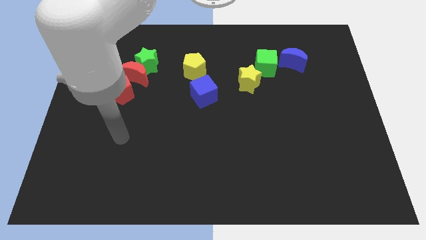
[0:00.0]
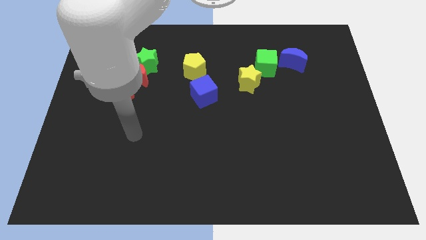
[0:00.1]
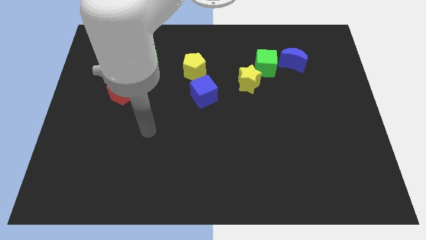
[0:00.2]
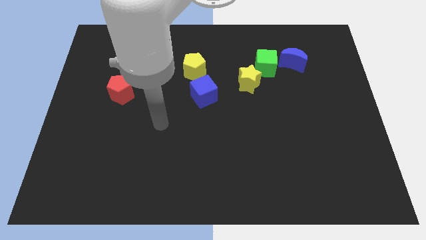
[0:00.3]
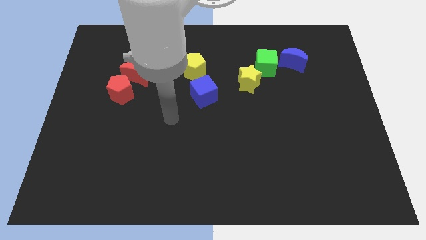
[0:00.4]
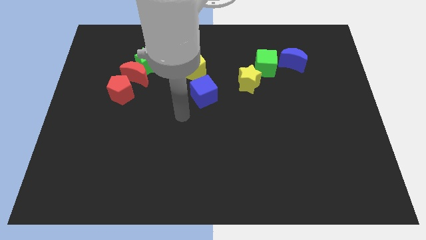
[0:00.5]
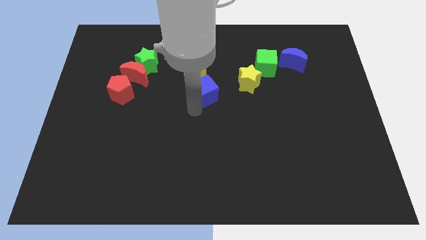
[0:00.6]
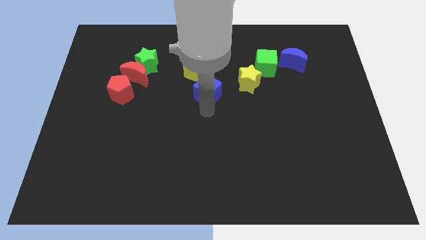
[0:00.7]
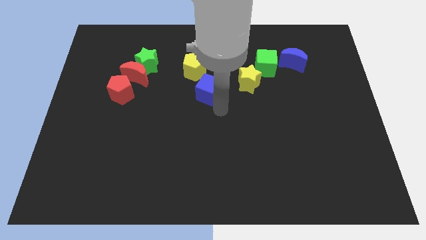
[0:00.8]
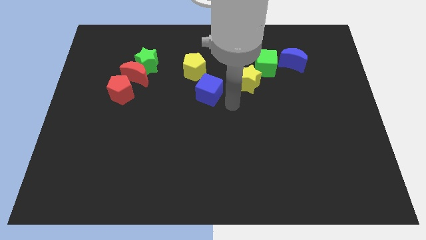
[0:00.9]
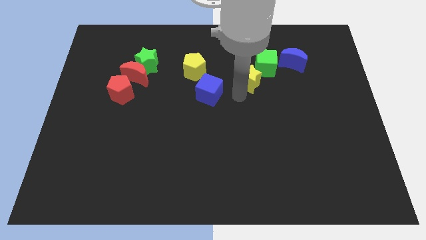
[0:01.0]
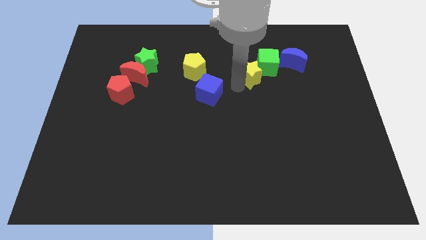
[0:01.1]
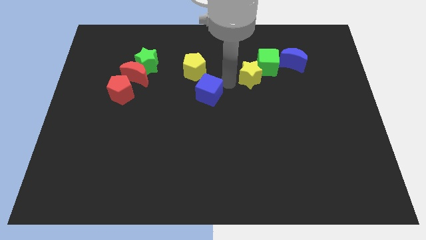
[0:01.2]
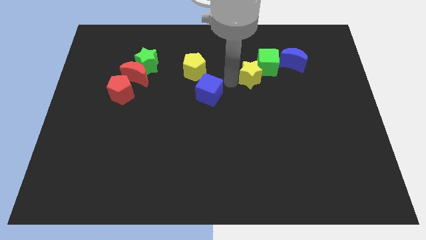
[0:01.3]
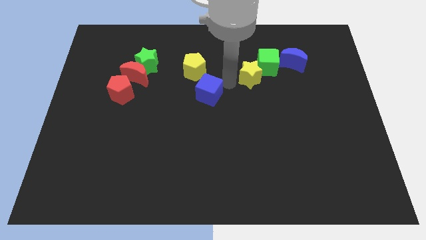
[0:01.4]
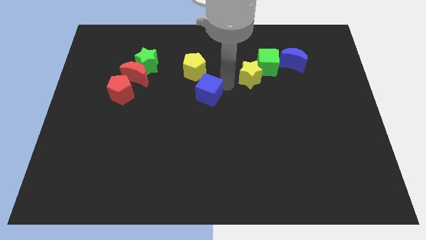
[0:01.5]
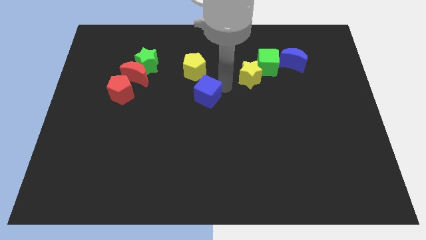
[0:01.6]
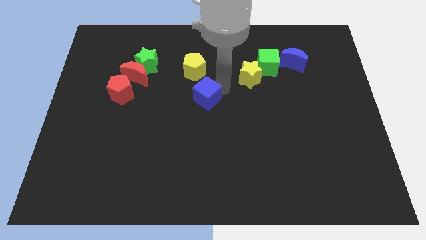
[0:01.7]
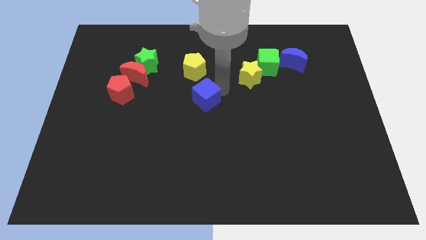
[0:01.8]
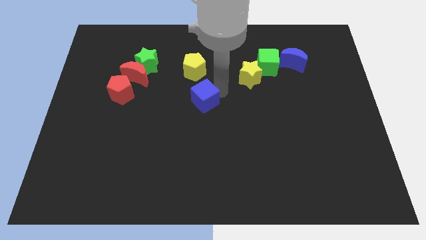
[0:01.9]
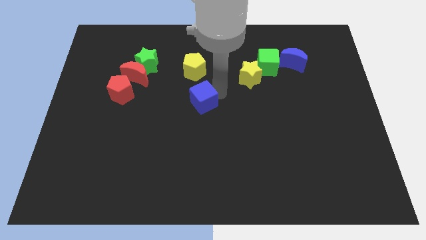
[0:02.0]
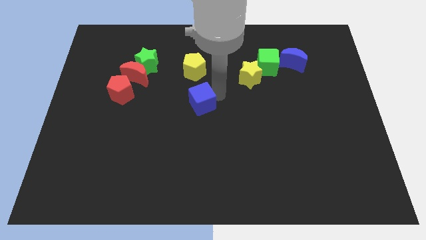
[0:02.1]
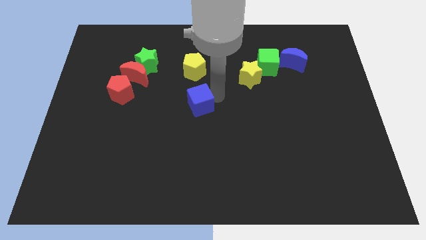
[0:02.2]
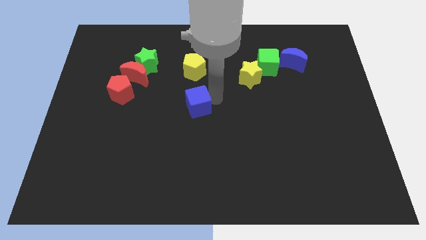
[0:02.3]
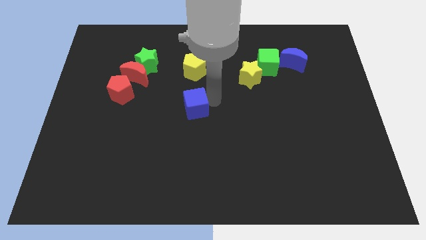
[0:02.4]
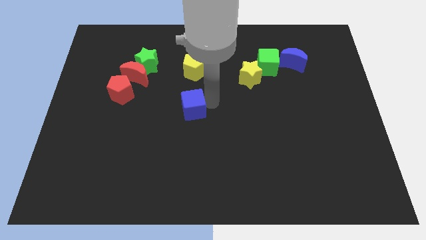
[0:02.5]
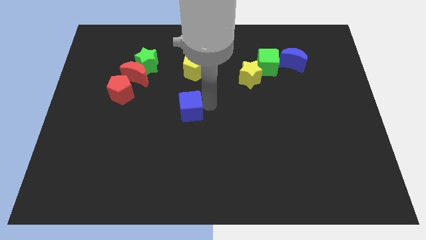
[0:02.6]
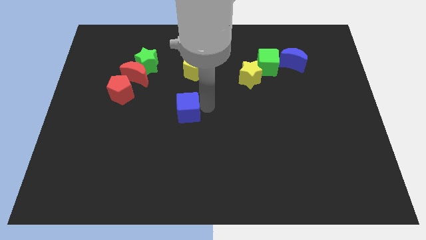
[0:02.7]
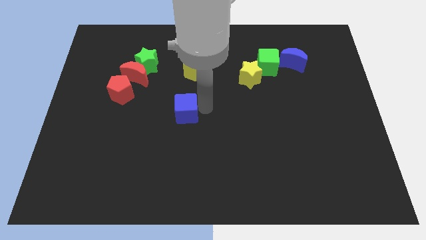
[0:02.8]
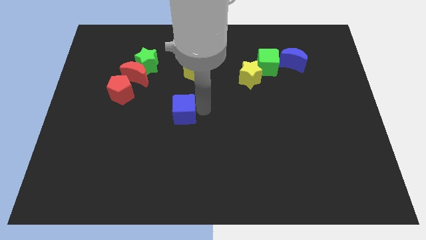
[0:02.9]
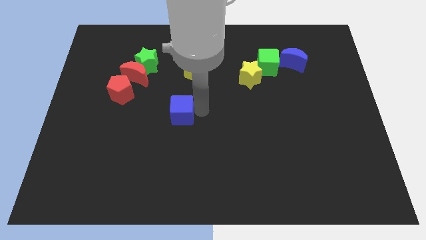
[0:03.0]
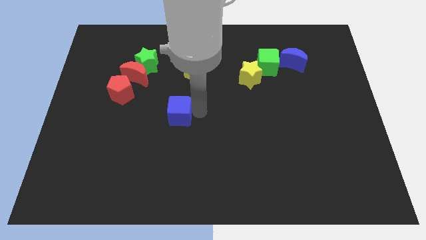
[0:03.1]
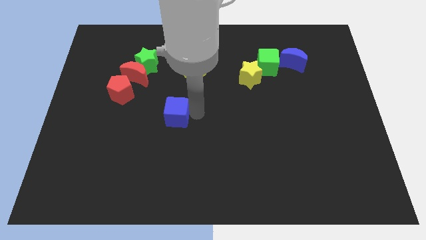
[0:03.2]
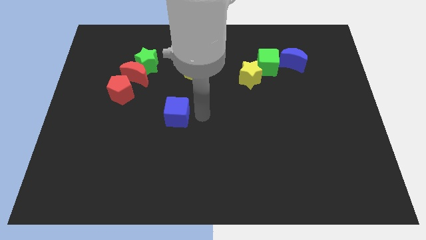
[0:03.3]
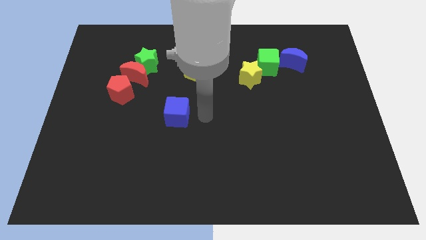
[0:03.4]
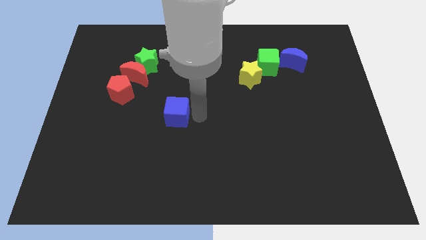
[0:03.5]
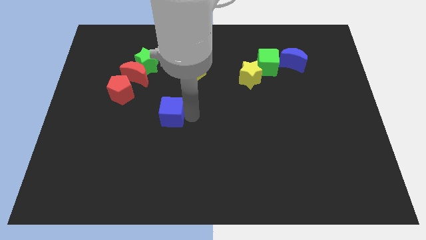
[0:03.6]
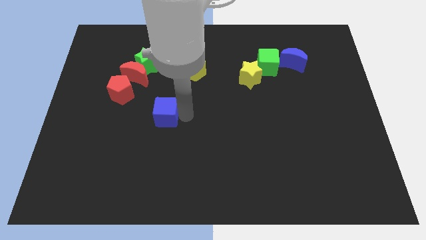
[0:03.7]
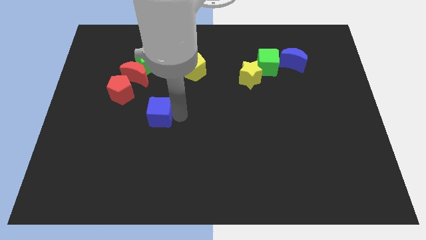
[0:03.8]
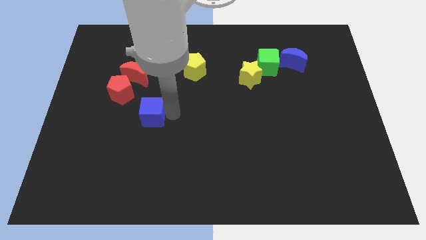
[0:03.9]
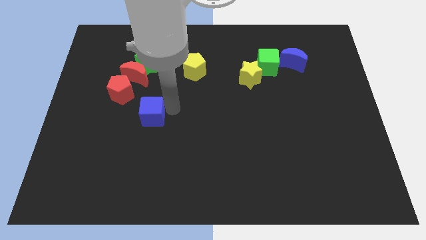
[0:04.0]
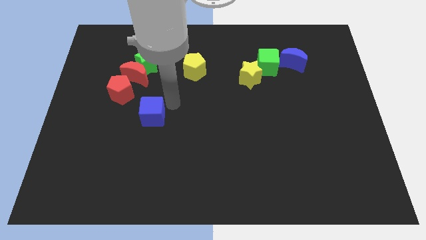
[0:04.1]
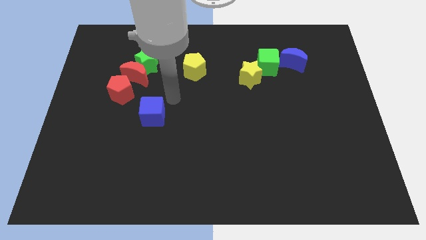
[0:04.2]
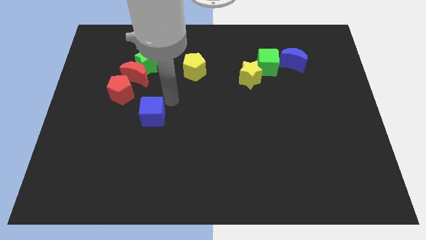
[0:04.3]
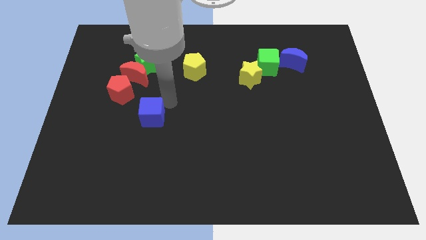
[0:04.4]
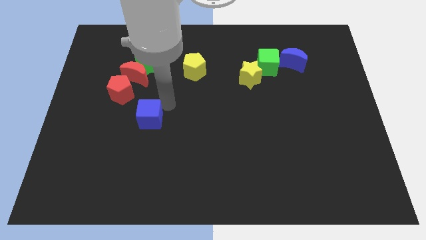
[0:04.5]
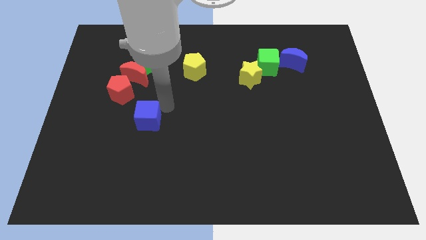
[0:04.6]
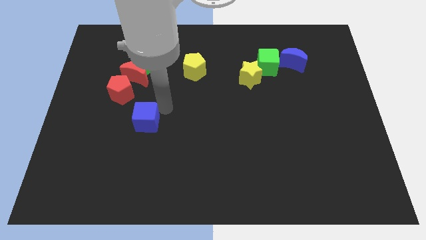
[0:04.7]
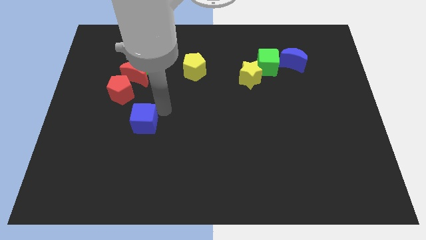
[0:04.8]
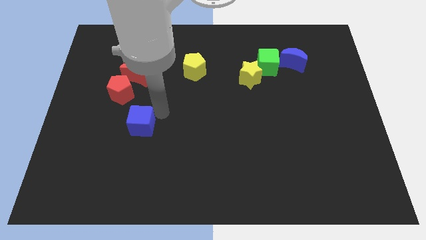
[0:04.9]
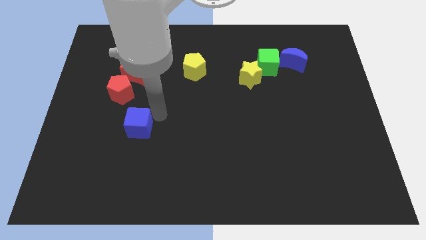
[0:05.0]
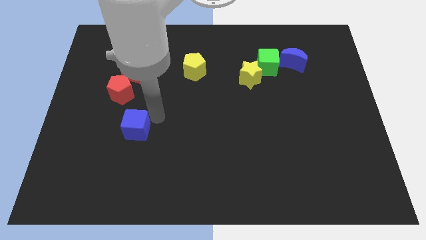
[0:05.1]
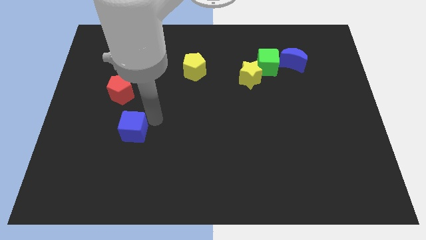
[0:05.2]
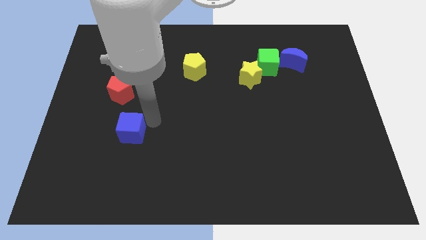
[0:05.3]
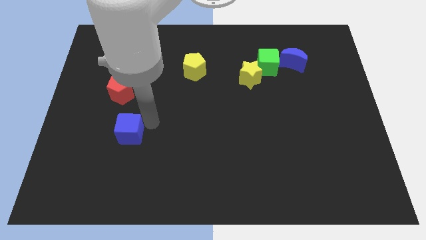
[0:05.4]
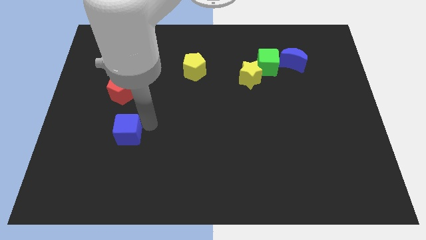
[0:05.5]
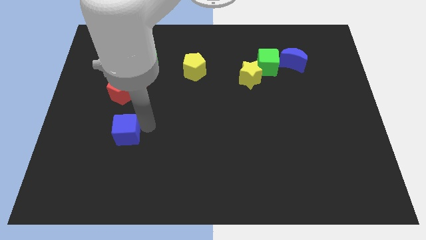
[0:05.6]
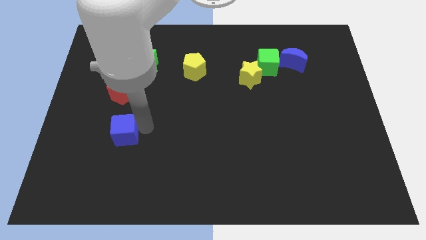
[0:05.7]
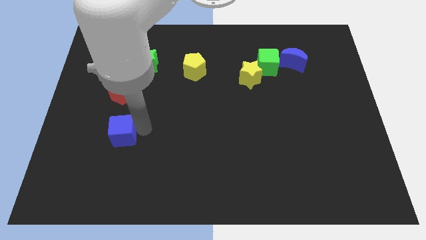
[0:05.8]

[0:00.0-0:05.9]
push the blue cube downwards and then left

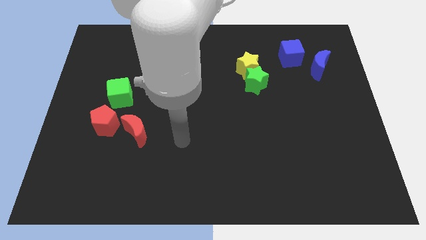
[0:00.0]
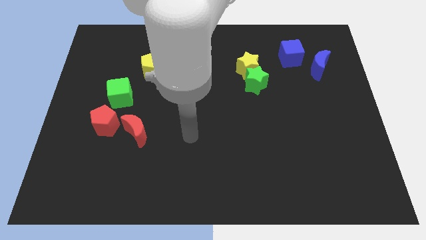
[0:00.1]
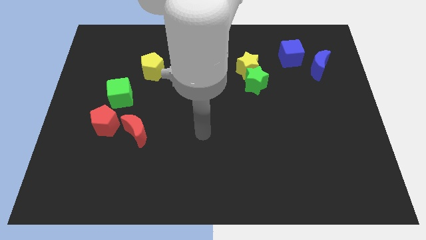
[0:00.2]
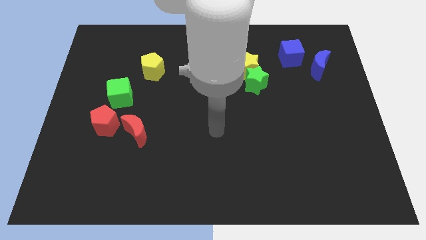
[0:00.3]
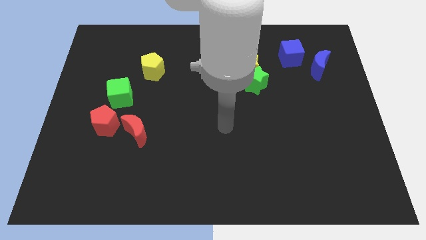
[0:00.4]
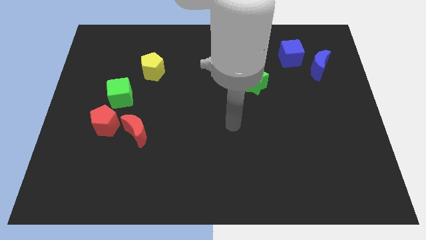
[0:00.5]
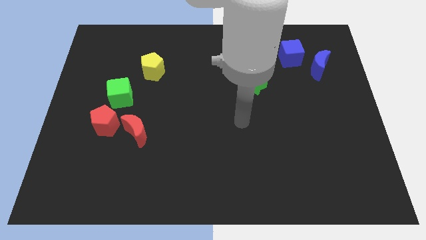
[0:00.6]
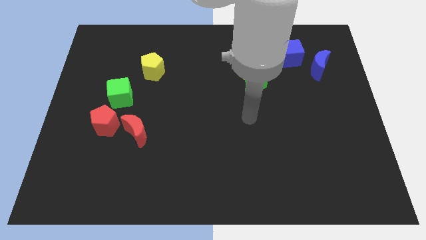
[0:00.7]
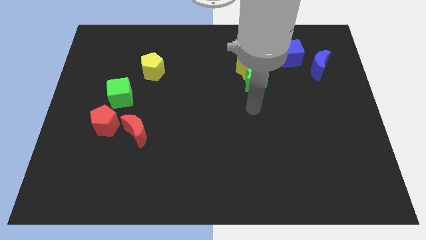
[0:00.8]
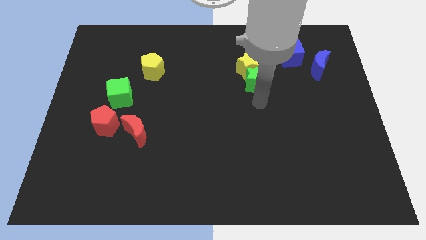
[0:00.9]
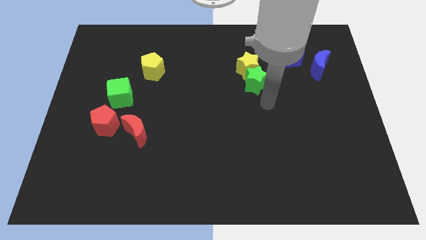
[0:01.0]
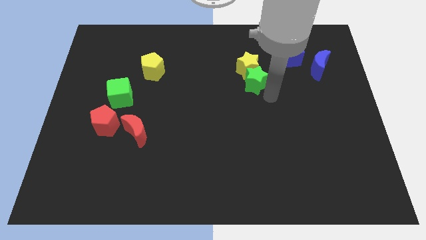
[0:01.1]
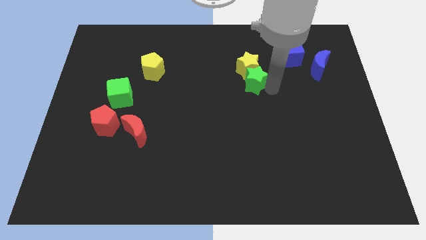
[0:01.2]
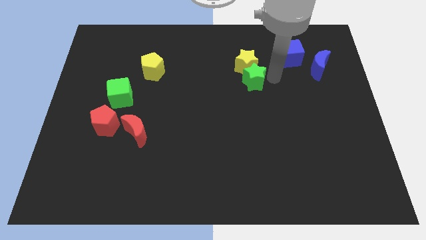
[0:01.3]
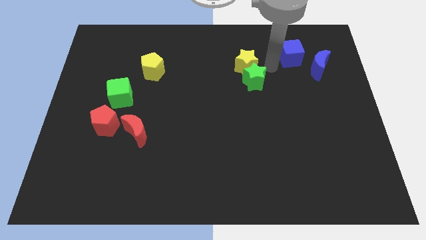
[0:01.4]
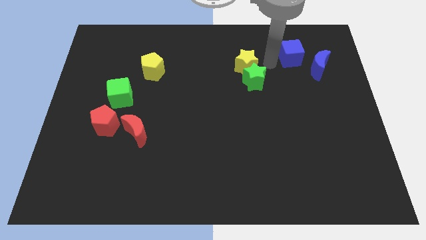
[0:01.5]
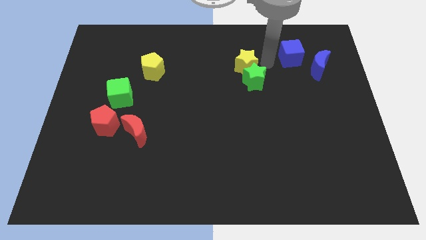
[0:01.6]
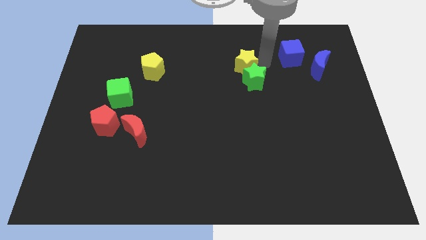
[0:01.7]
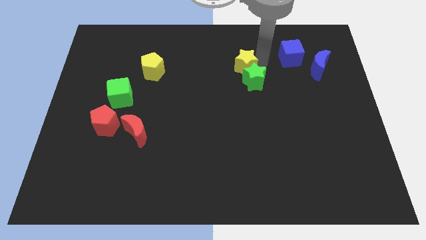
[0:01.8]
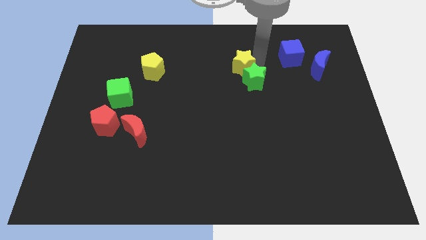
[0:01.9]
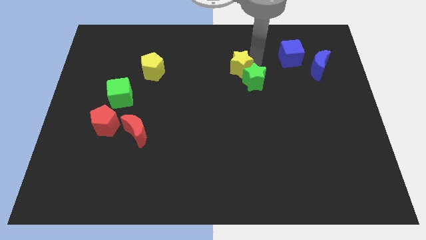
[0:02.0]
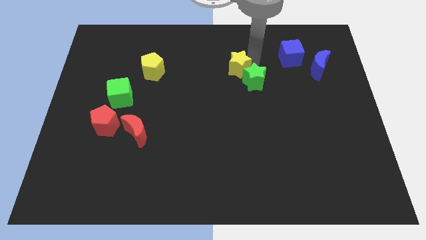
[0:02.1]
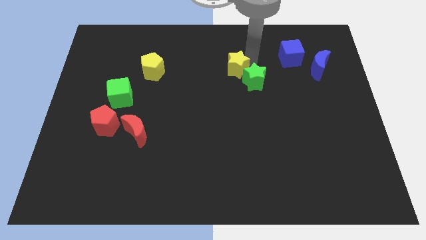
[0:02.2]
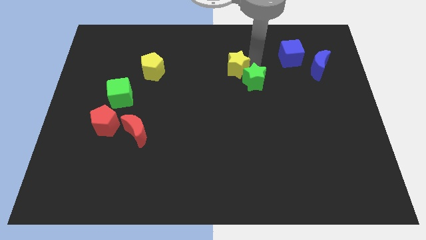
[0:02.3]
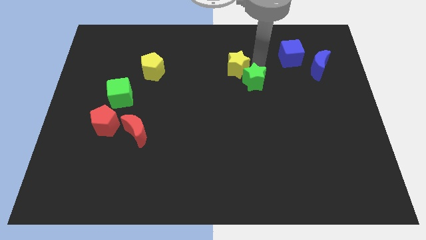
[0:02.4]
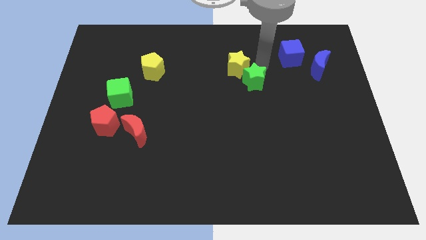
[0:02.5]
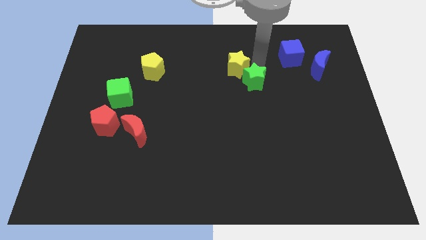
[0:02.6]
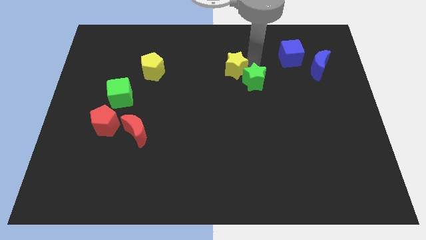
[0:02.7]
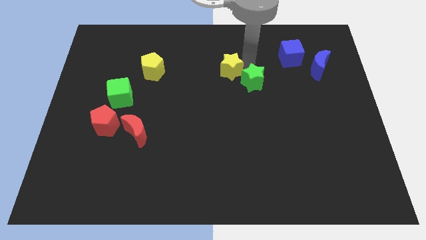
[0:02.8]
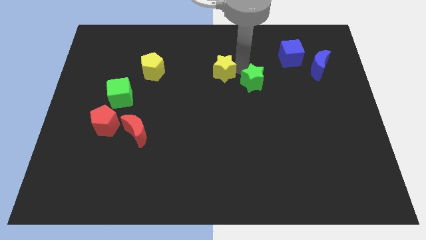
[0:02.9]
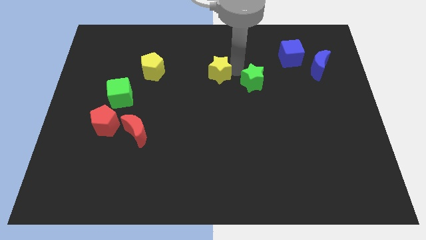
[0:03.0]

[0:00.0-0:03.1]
slightly push the yellow star to the left
